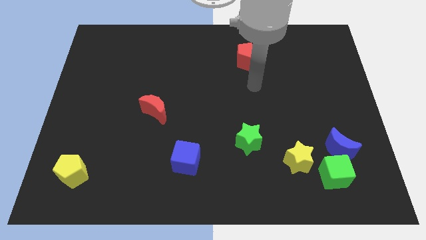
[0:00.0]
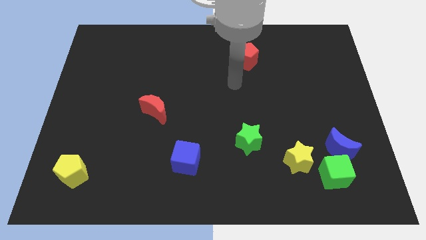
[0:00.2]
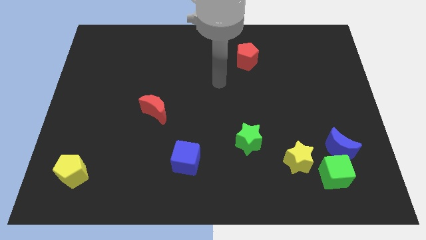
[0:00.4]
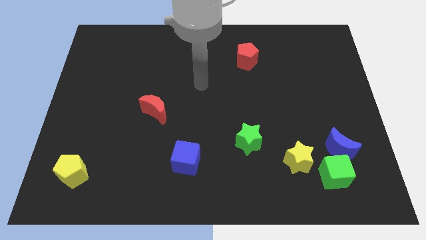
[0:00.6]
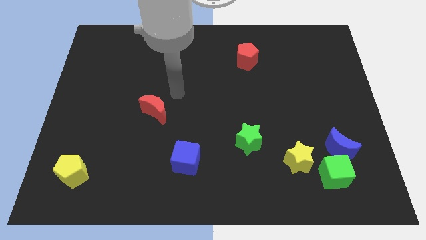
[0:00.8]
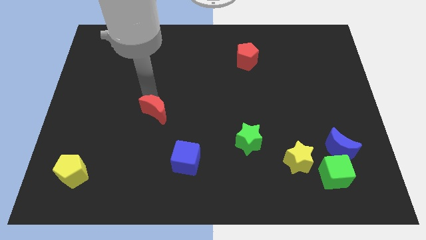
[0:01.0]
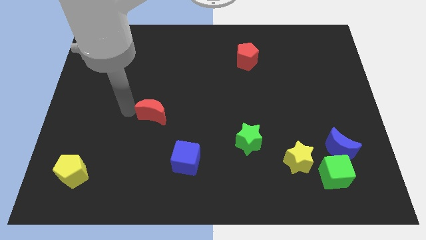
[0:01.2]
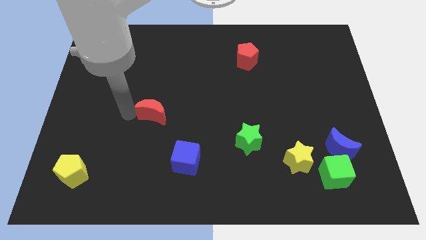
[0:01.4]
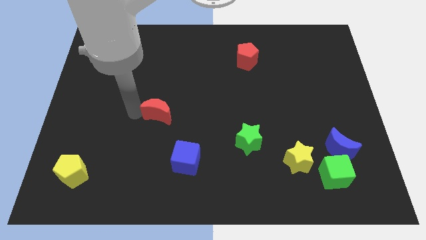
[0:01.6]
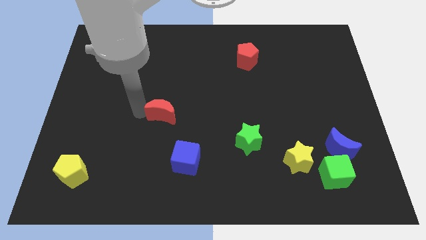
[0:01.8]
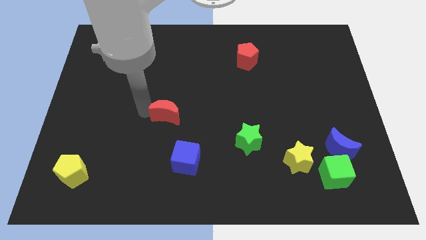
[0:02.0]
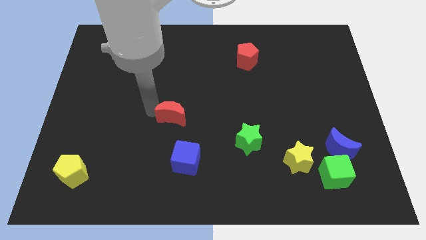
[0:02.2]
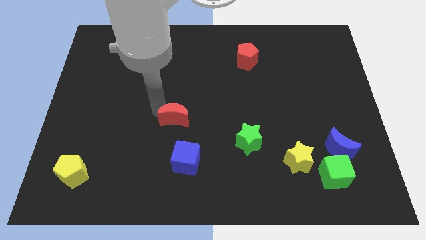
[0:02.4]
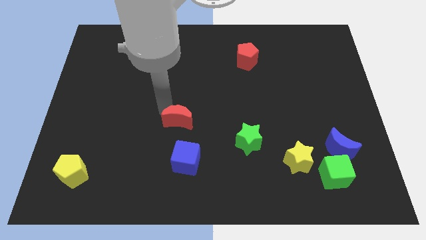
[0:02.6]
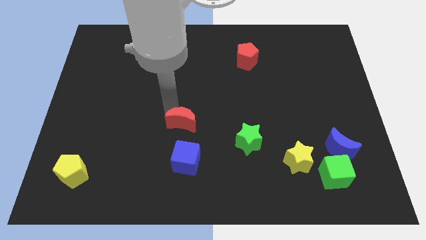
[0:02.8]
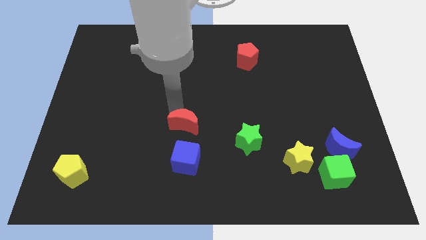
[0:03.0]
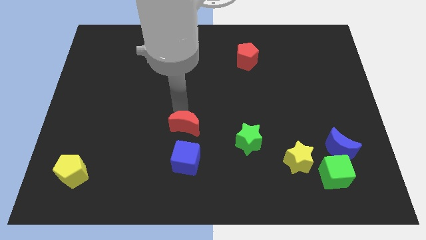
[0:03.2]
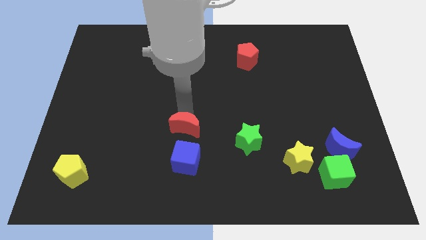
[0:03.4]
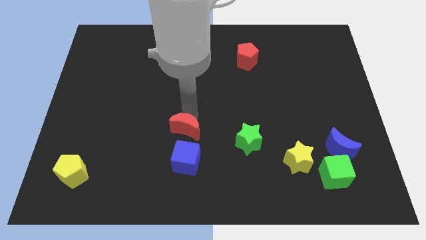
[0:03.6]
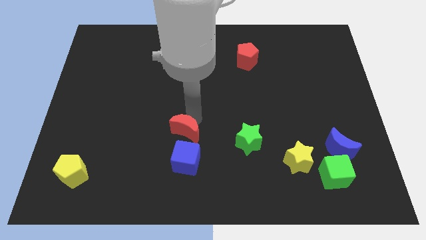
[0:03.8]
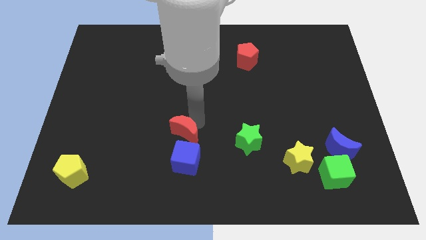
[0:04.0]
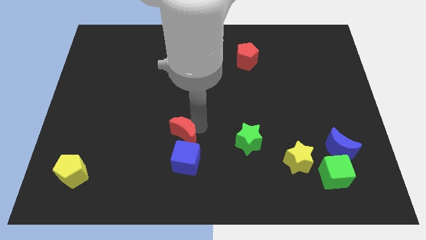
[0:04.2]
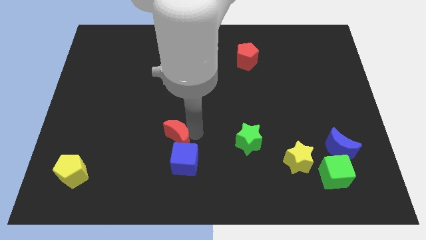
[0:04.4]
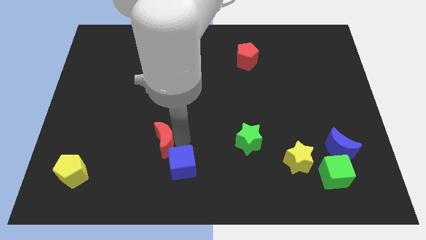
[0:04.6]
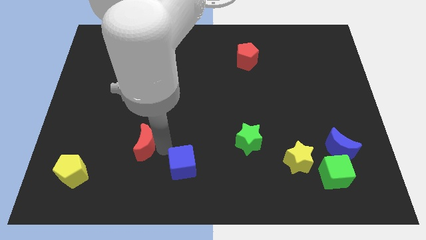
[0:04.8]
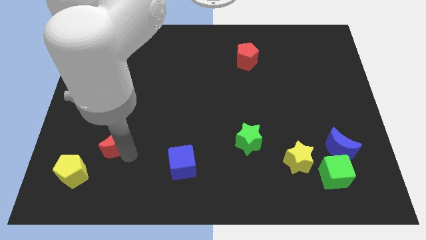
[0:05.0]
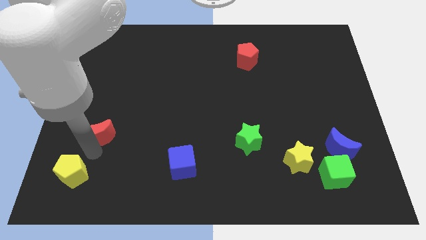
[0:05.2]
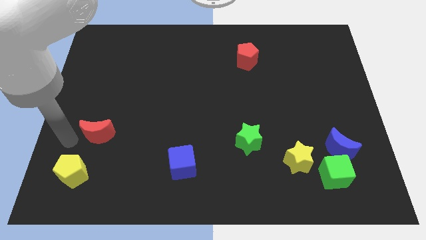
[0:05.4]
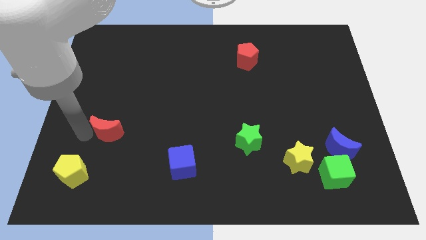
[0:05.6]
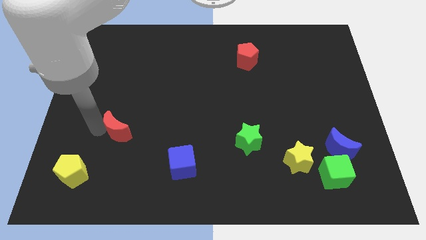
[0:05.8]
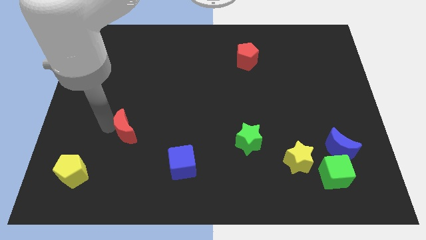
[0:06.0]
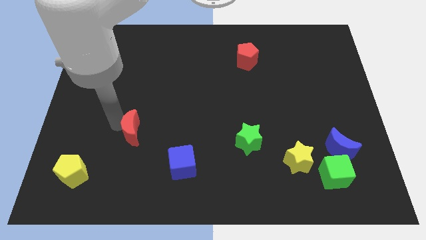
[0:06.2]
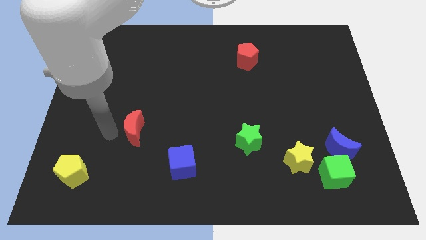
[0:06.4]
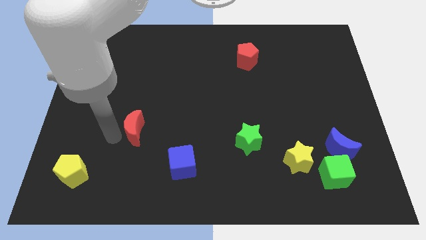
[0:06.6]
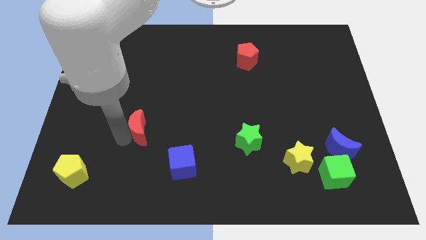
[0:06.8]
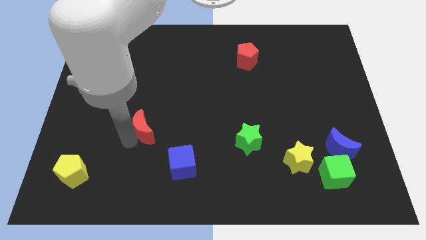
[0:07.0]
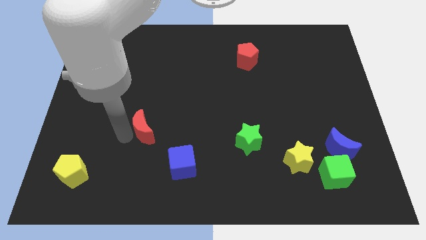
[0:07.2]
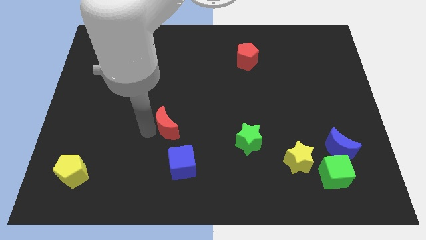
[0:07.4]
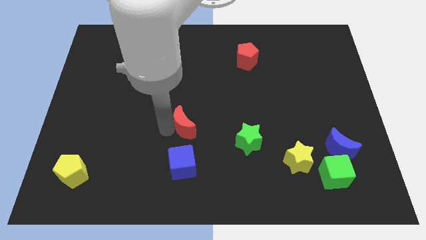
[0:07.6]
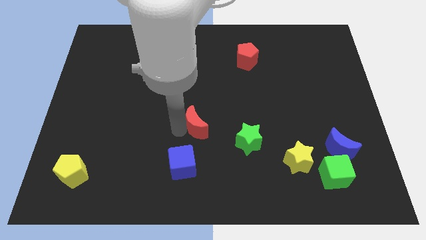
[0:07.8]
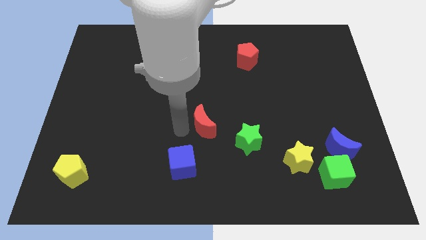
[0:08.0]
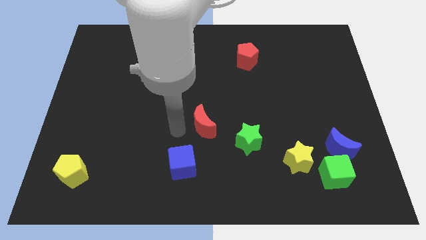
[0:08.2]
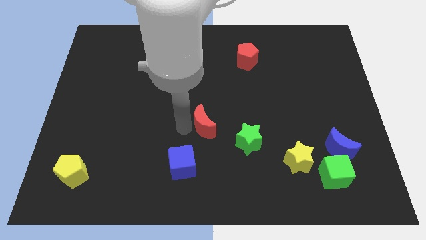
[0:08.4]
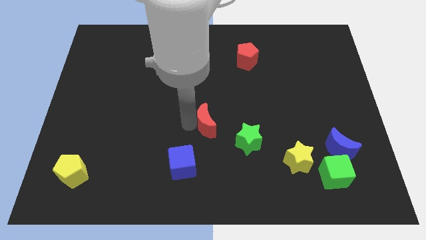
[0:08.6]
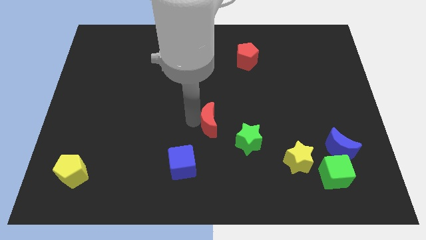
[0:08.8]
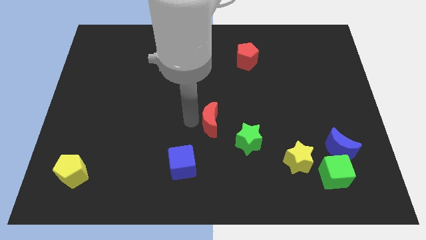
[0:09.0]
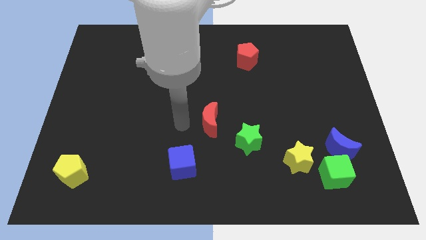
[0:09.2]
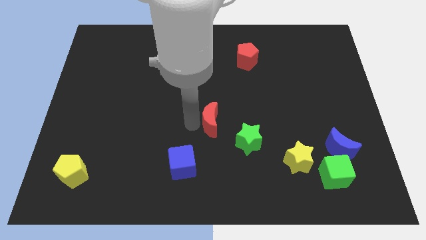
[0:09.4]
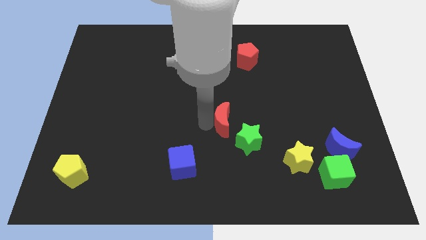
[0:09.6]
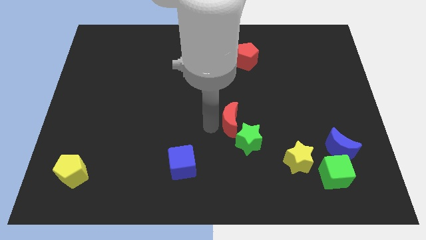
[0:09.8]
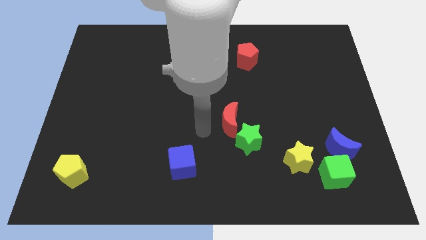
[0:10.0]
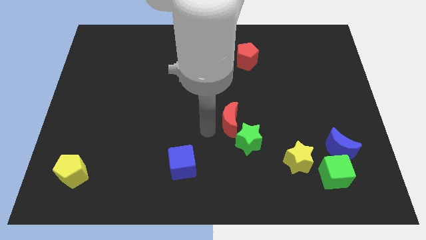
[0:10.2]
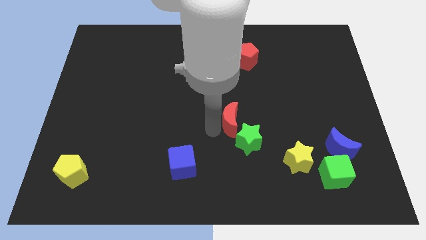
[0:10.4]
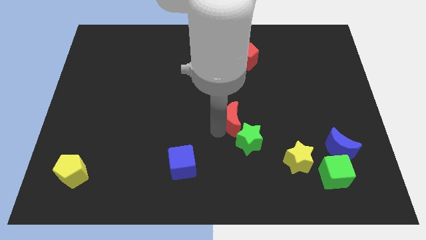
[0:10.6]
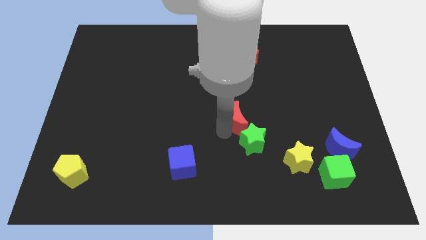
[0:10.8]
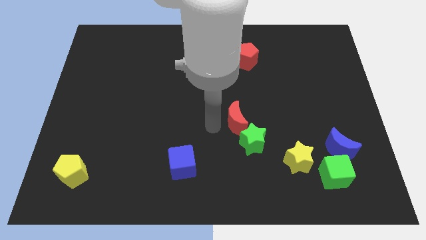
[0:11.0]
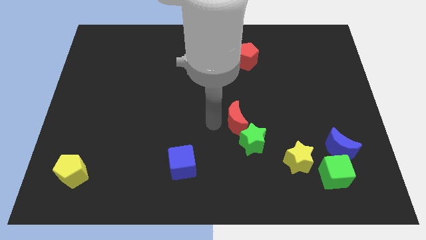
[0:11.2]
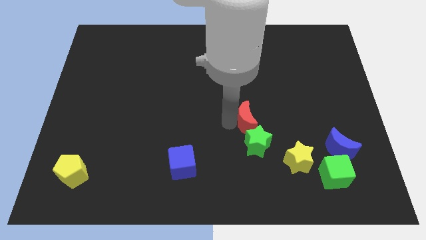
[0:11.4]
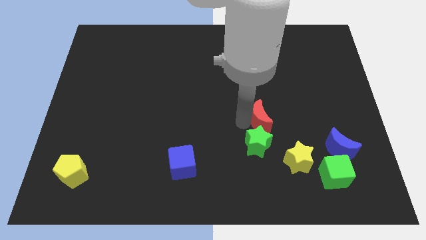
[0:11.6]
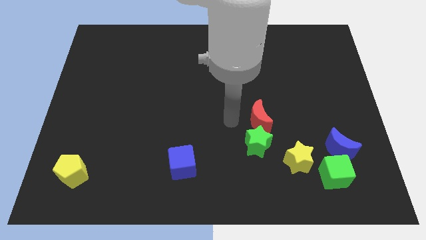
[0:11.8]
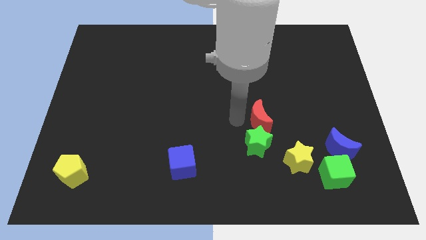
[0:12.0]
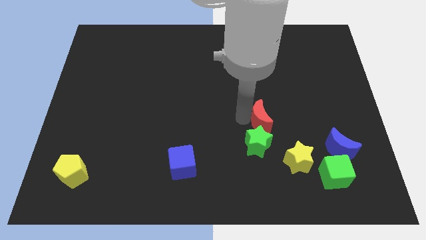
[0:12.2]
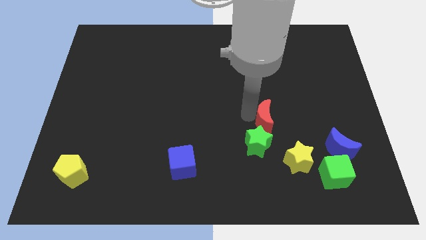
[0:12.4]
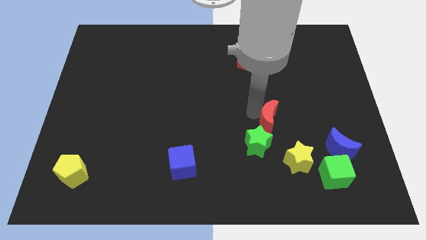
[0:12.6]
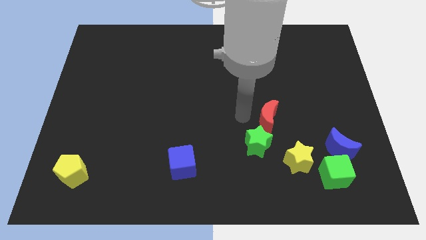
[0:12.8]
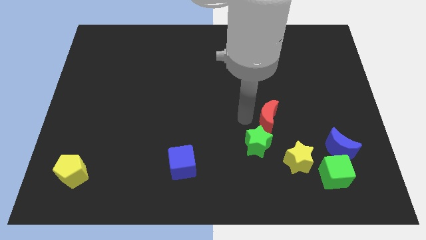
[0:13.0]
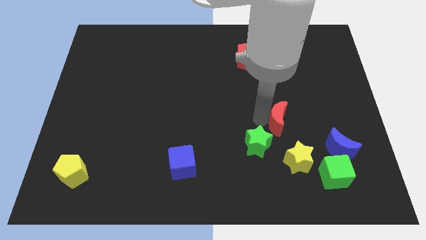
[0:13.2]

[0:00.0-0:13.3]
put the red moon to the top side of the yellow star

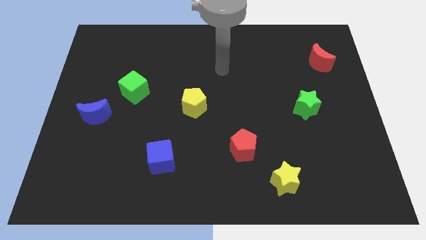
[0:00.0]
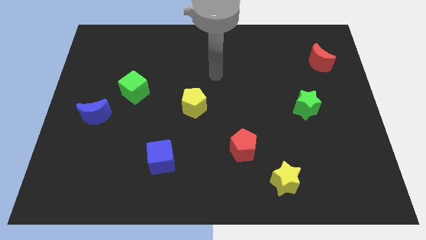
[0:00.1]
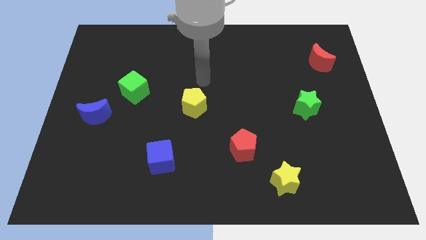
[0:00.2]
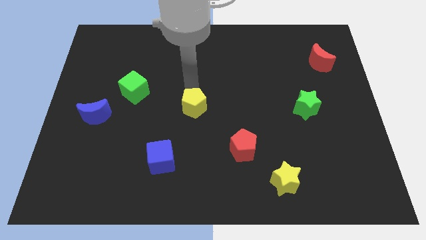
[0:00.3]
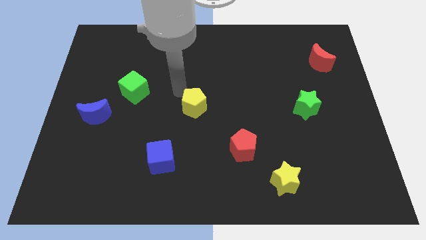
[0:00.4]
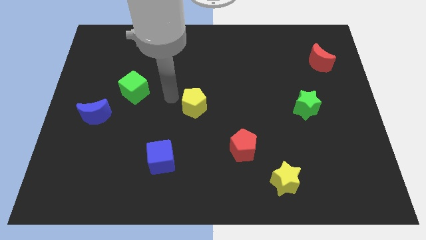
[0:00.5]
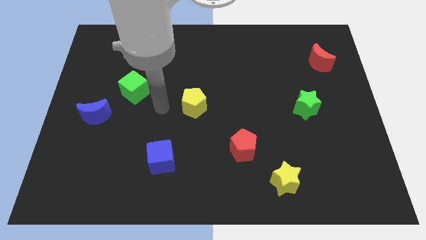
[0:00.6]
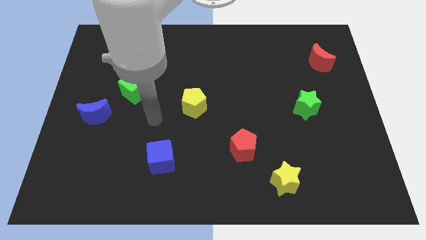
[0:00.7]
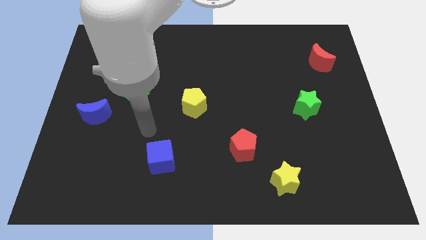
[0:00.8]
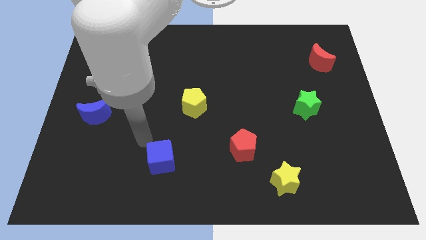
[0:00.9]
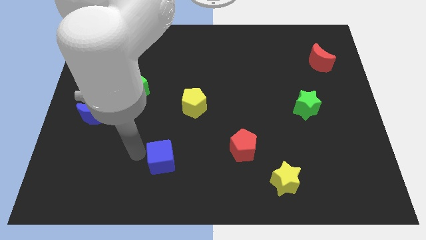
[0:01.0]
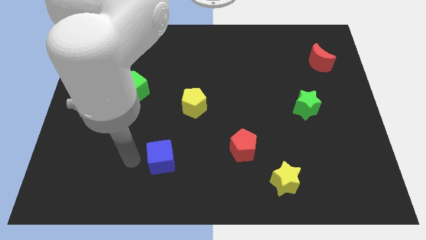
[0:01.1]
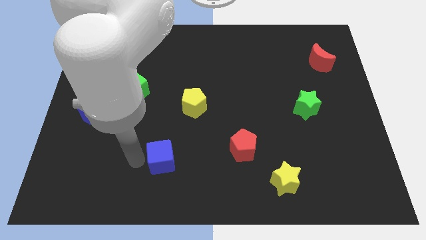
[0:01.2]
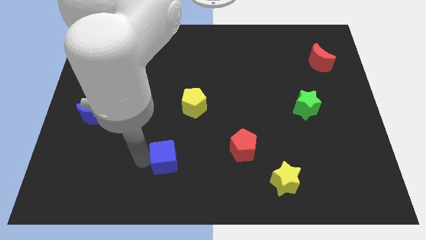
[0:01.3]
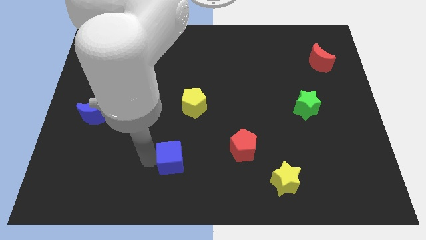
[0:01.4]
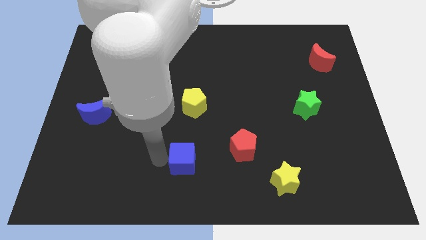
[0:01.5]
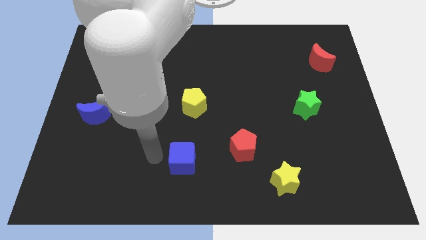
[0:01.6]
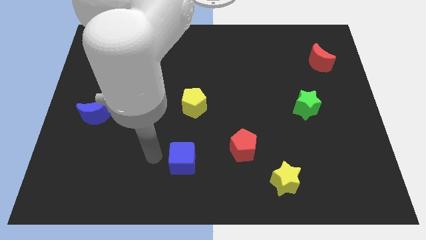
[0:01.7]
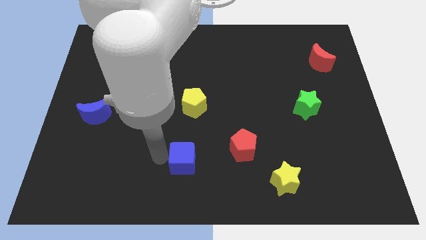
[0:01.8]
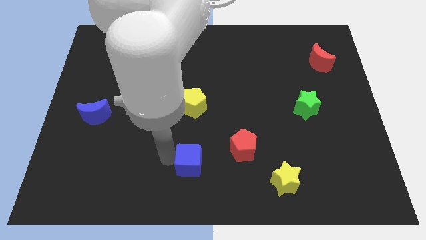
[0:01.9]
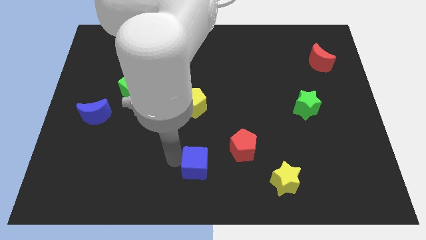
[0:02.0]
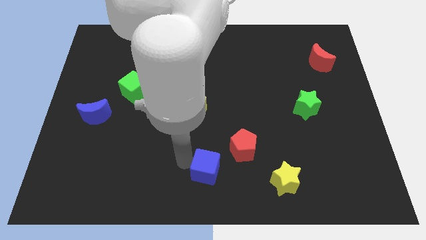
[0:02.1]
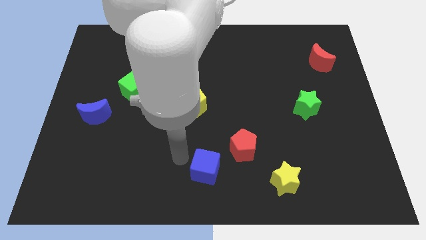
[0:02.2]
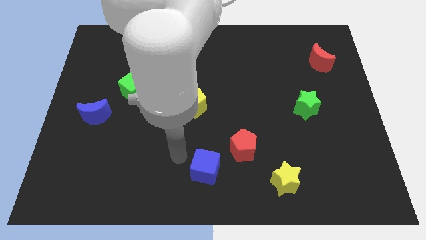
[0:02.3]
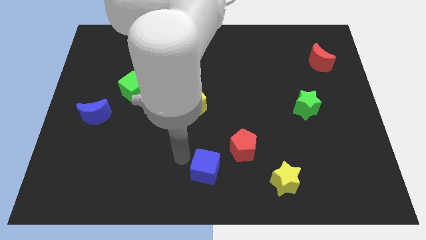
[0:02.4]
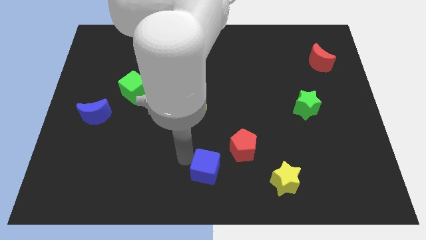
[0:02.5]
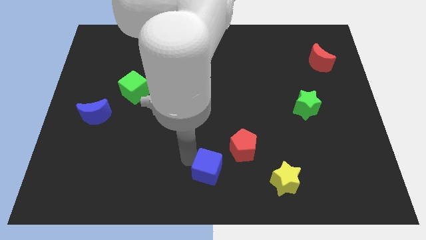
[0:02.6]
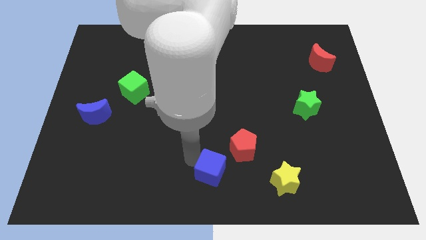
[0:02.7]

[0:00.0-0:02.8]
put the blue cube just left of the yellow star
